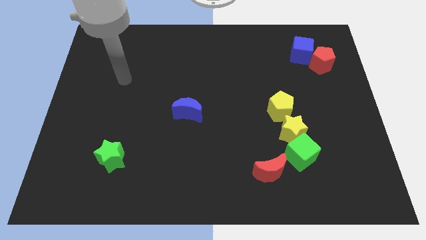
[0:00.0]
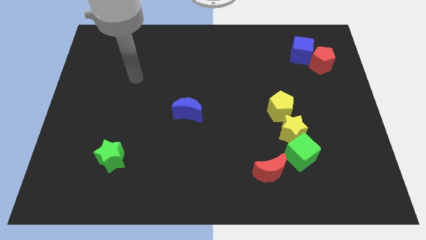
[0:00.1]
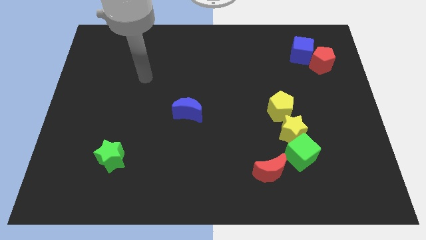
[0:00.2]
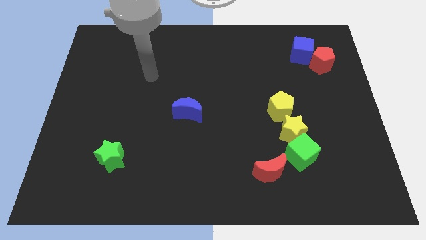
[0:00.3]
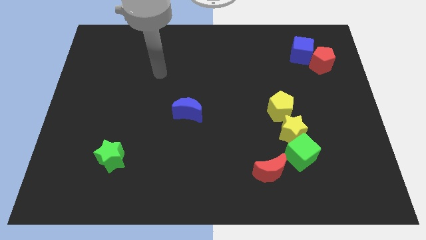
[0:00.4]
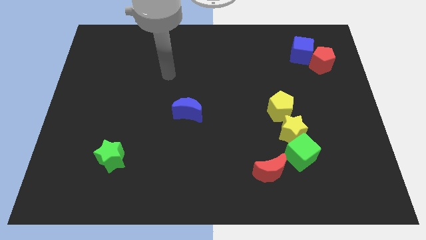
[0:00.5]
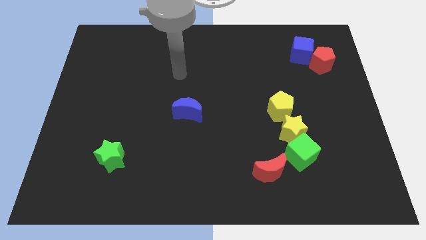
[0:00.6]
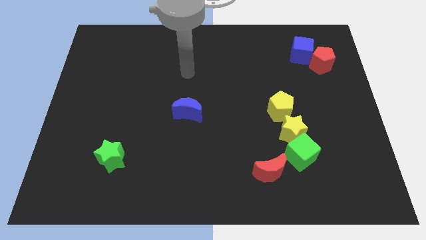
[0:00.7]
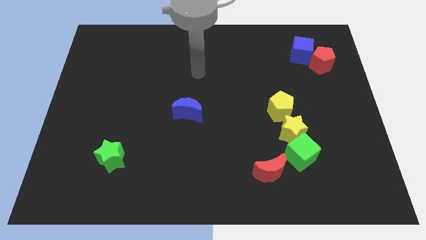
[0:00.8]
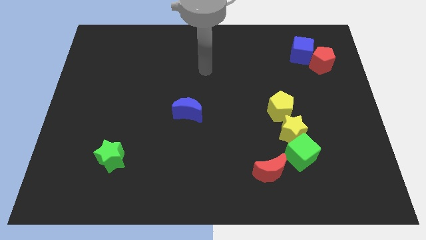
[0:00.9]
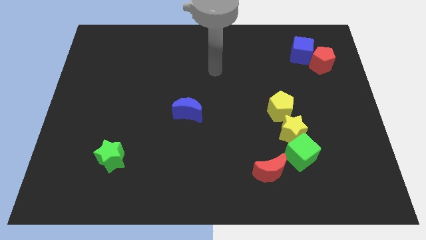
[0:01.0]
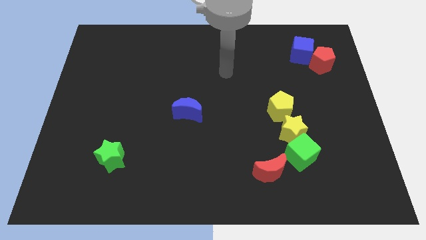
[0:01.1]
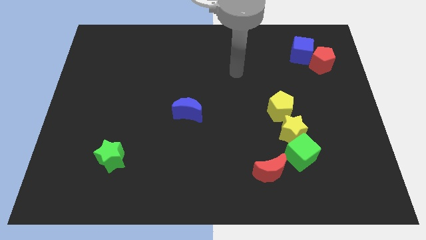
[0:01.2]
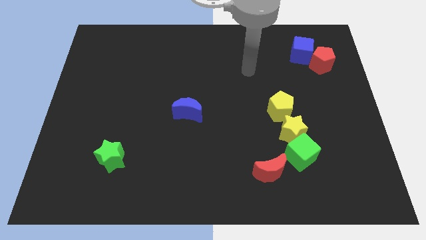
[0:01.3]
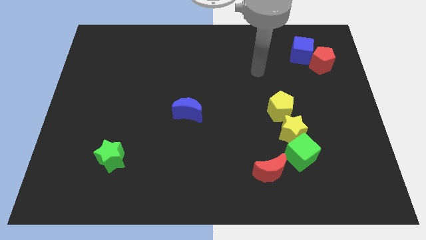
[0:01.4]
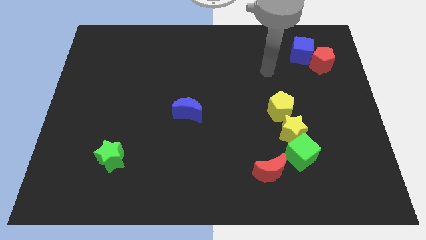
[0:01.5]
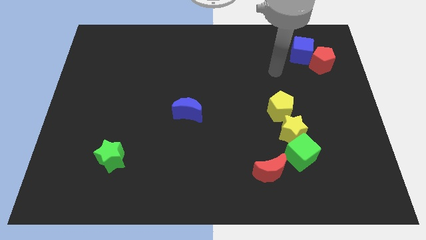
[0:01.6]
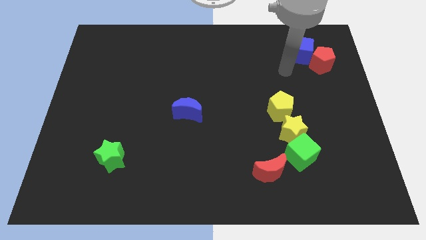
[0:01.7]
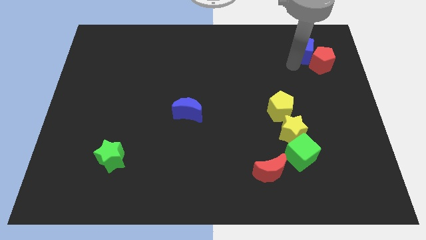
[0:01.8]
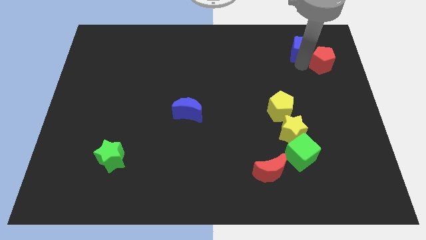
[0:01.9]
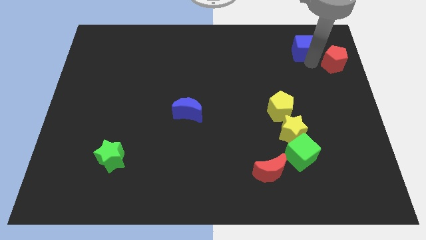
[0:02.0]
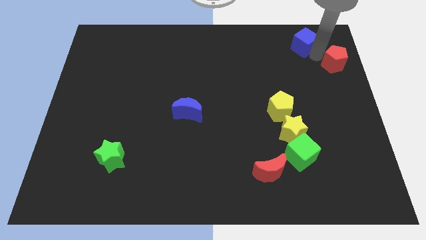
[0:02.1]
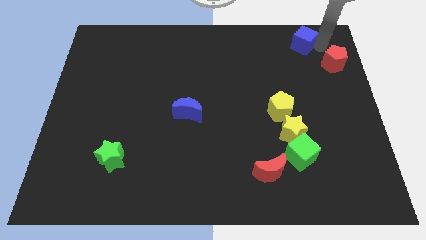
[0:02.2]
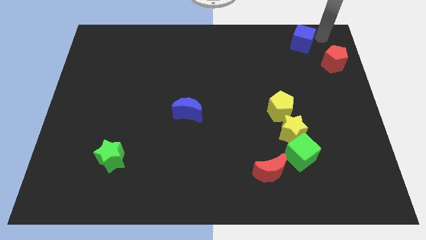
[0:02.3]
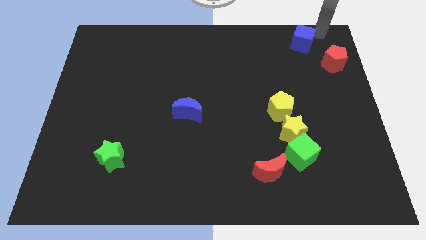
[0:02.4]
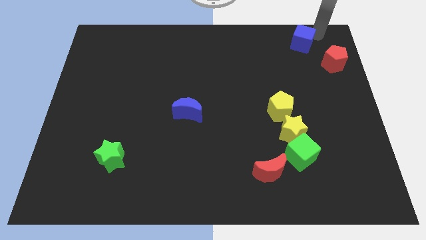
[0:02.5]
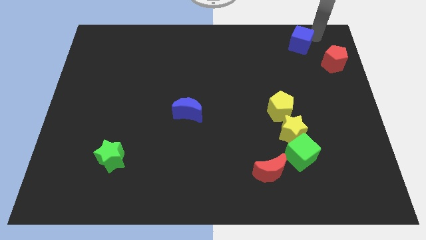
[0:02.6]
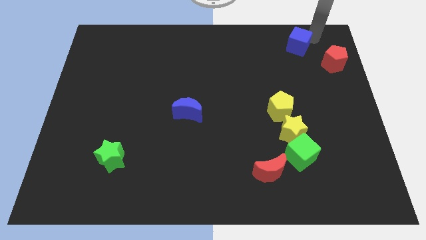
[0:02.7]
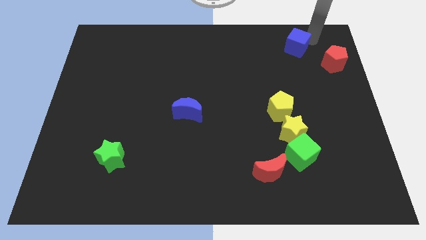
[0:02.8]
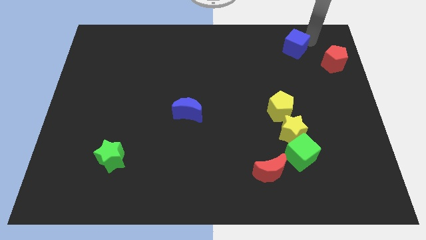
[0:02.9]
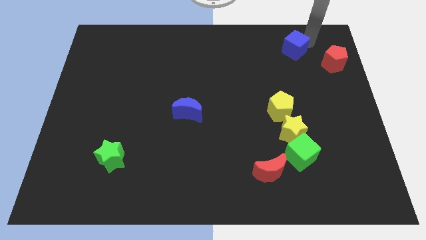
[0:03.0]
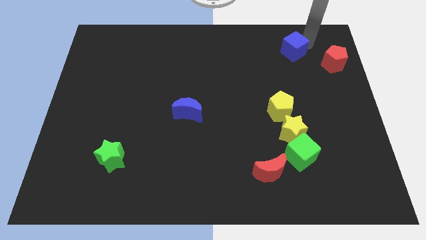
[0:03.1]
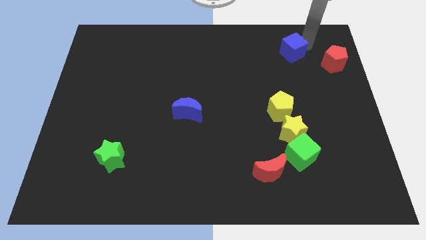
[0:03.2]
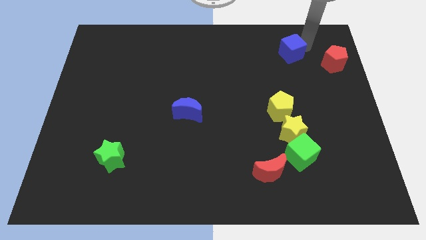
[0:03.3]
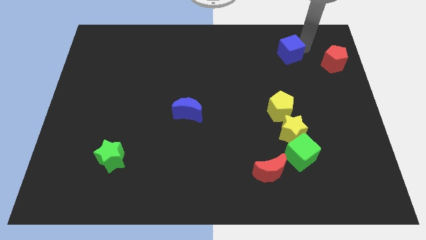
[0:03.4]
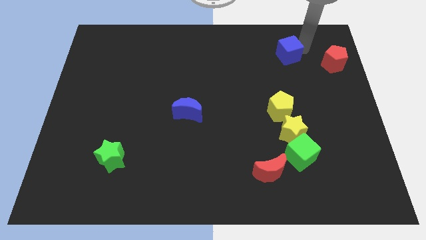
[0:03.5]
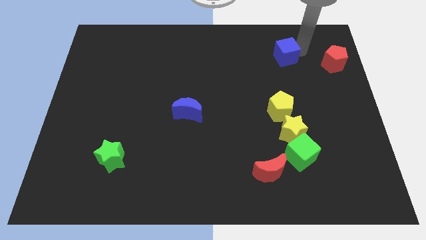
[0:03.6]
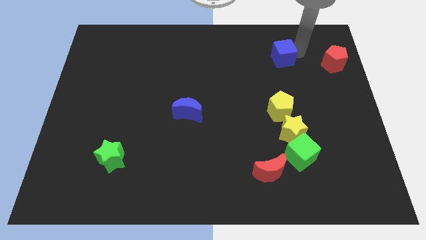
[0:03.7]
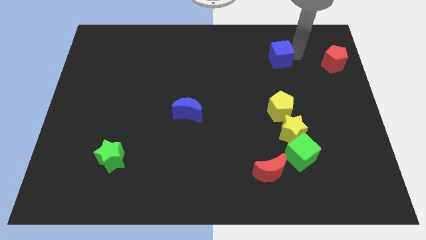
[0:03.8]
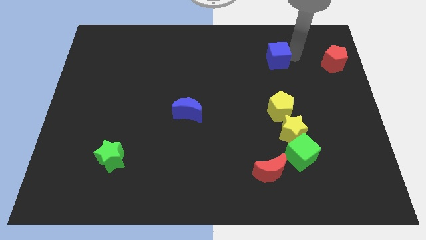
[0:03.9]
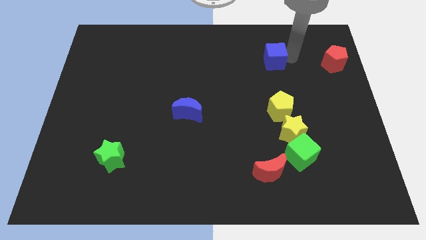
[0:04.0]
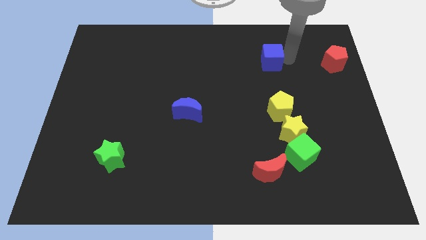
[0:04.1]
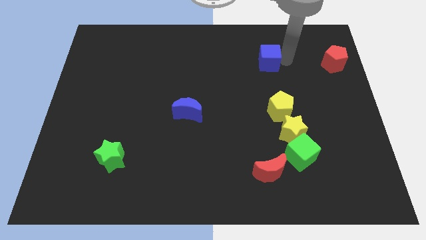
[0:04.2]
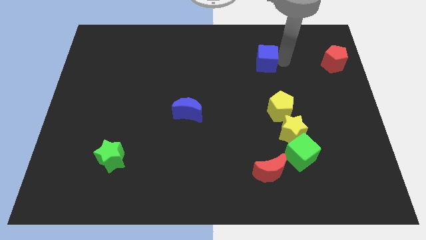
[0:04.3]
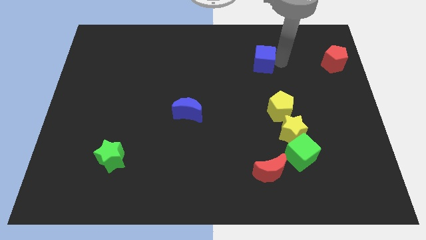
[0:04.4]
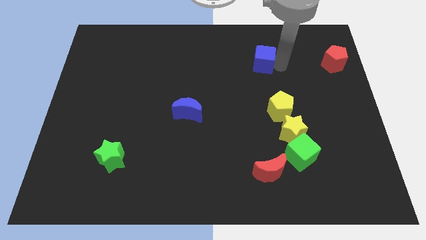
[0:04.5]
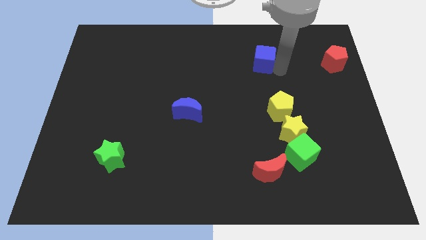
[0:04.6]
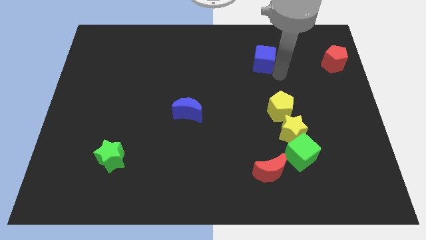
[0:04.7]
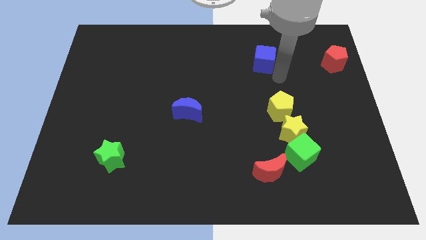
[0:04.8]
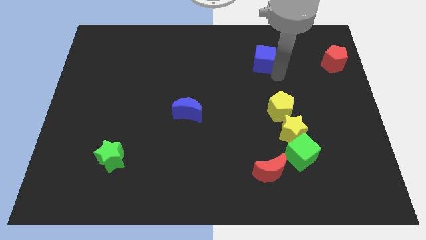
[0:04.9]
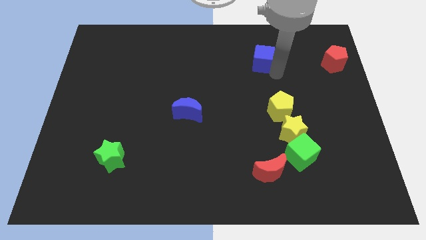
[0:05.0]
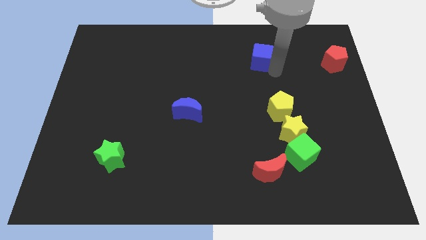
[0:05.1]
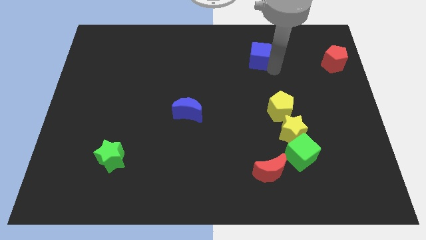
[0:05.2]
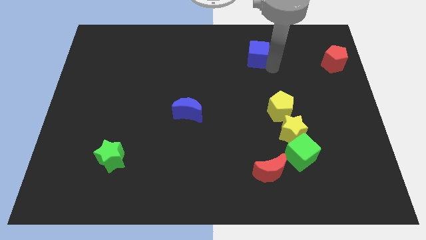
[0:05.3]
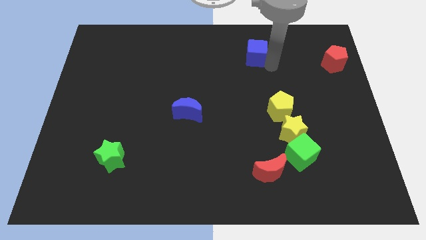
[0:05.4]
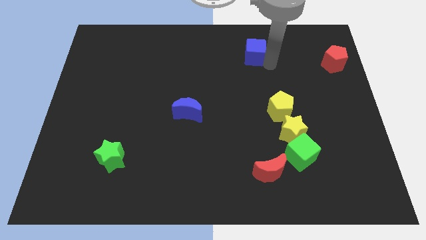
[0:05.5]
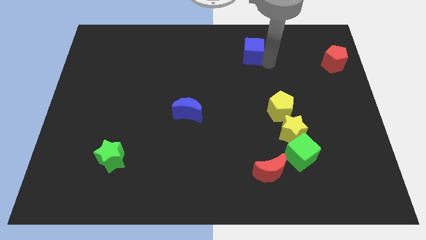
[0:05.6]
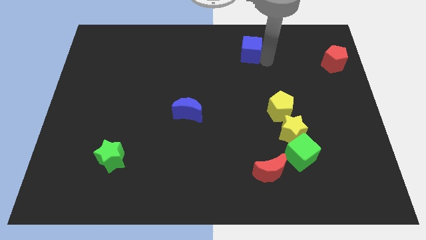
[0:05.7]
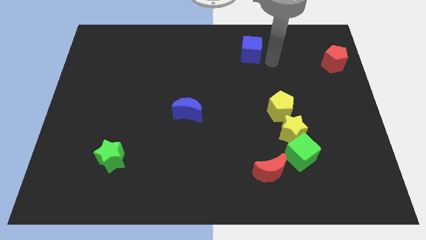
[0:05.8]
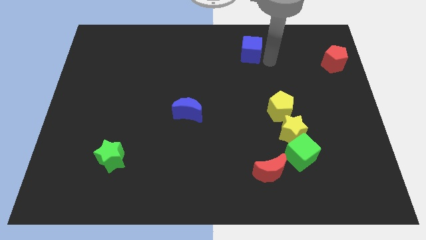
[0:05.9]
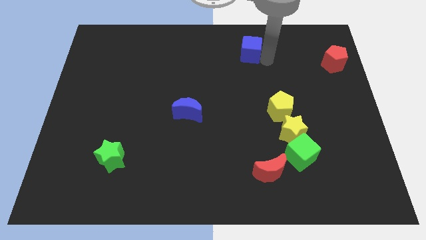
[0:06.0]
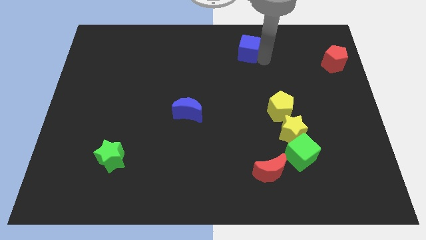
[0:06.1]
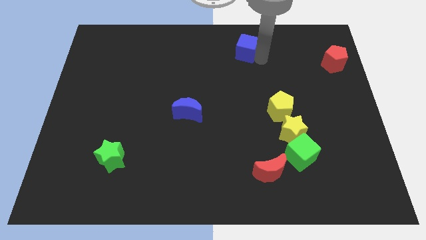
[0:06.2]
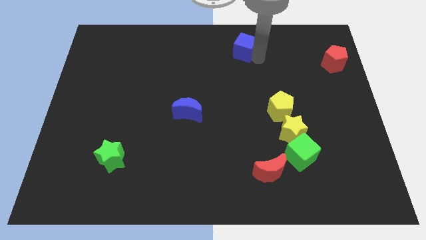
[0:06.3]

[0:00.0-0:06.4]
slide the blue cube to the towards your base

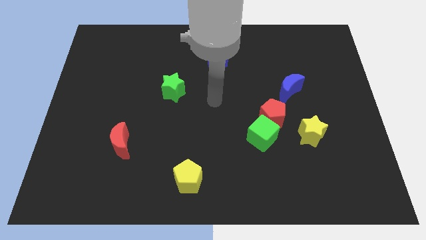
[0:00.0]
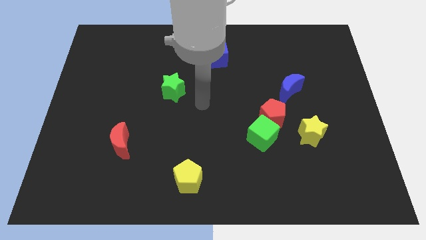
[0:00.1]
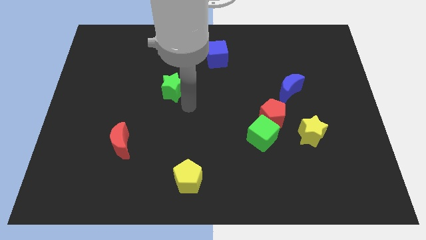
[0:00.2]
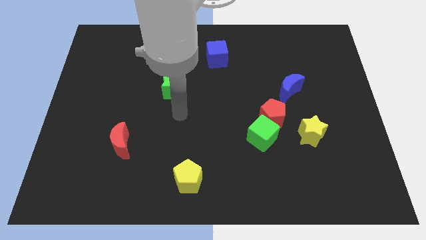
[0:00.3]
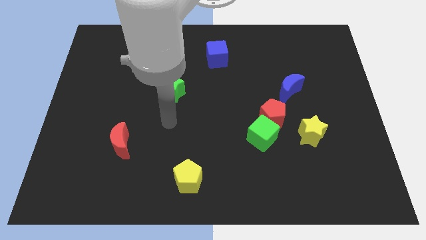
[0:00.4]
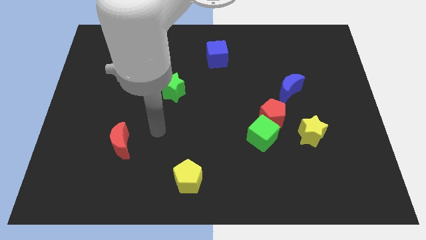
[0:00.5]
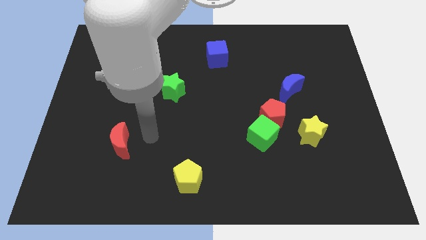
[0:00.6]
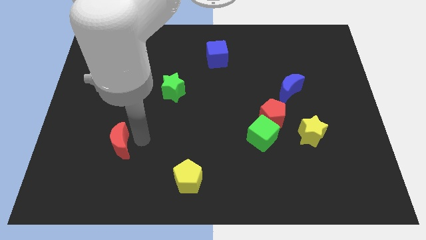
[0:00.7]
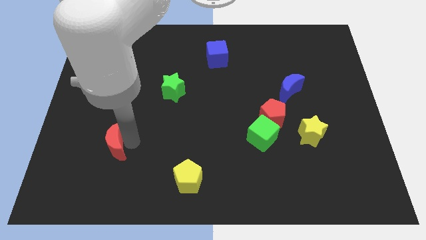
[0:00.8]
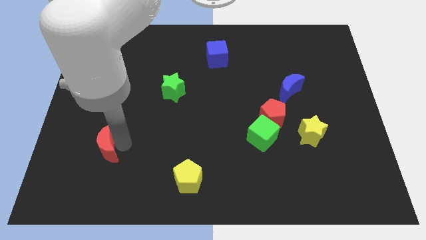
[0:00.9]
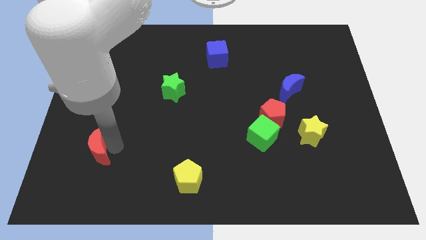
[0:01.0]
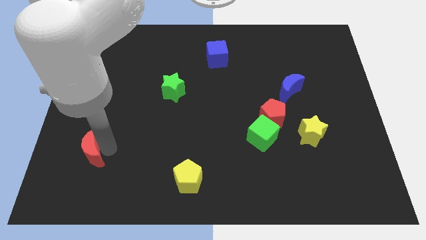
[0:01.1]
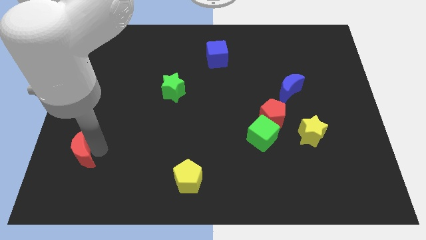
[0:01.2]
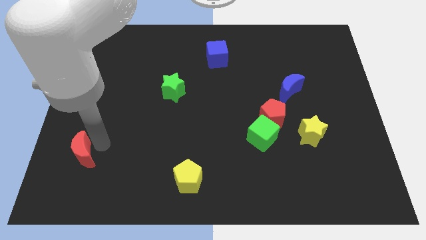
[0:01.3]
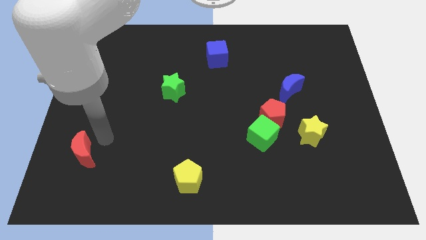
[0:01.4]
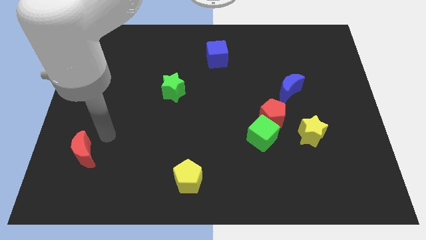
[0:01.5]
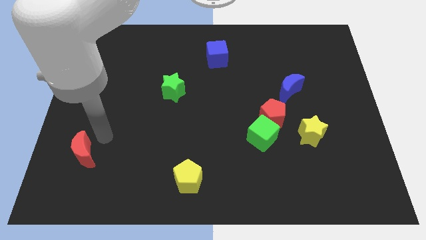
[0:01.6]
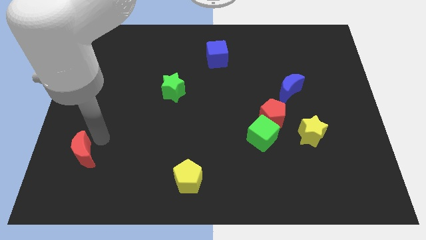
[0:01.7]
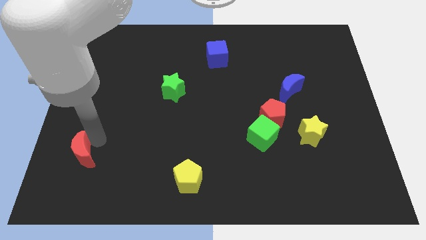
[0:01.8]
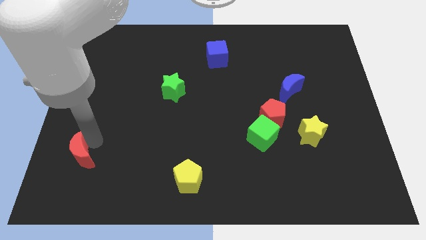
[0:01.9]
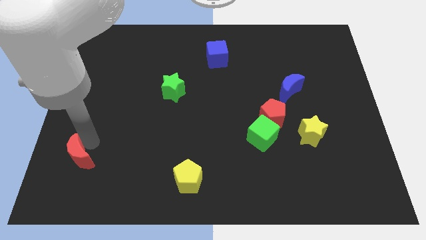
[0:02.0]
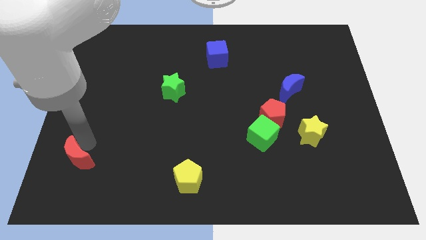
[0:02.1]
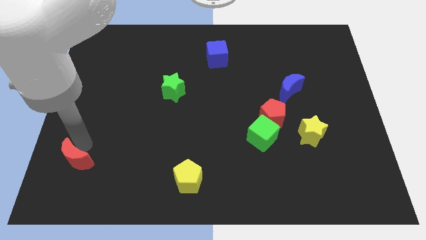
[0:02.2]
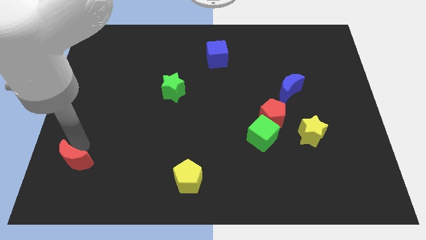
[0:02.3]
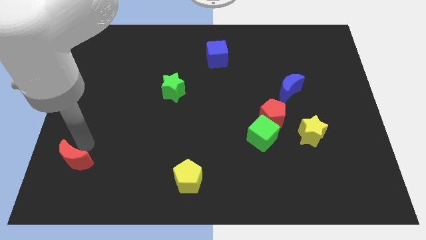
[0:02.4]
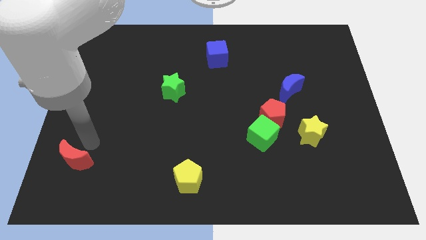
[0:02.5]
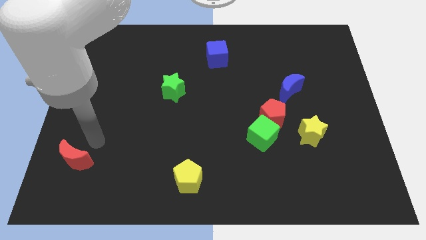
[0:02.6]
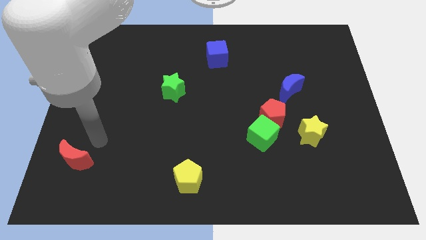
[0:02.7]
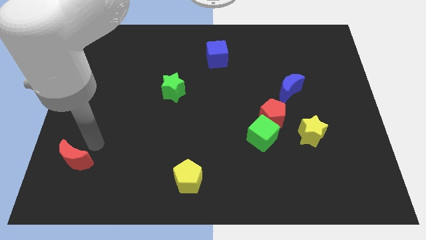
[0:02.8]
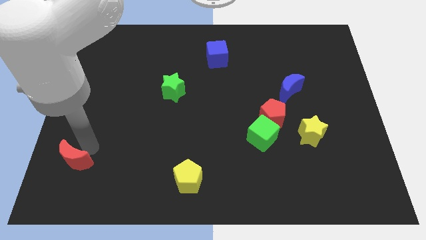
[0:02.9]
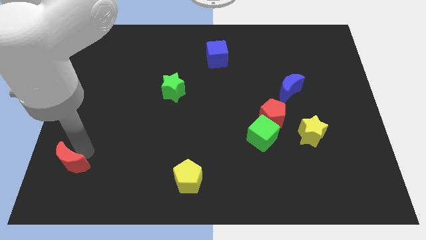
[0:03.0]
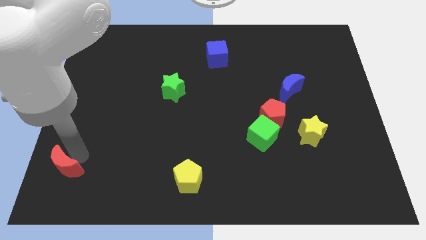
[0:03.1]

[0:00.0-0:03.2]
put the red moon to the bottom left
